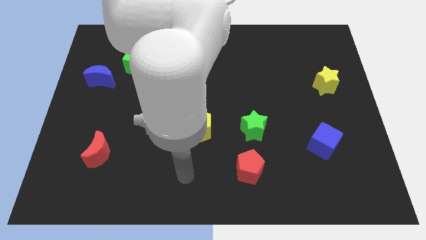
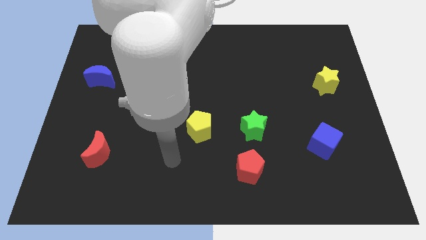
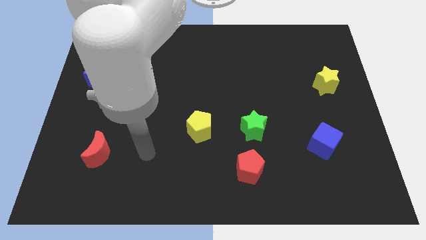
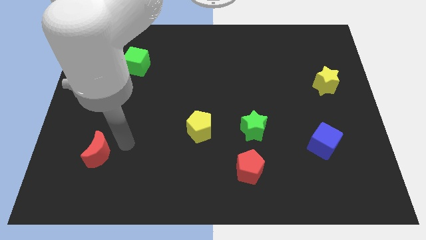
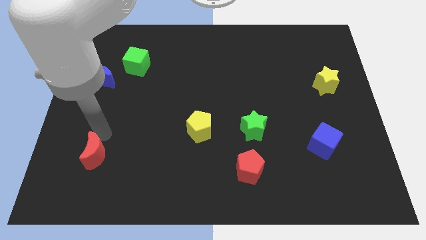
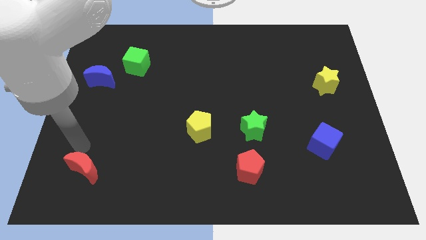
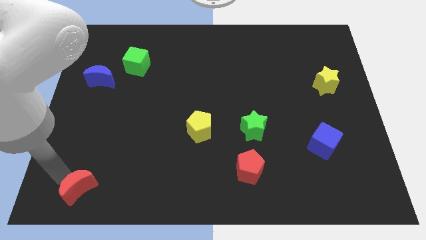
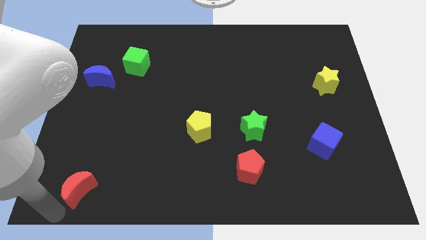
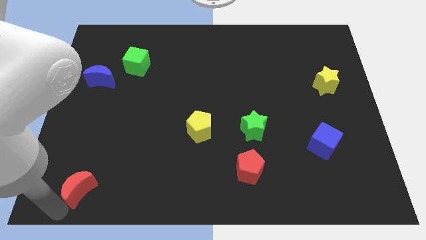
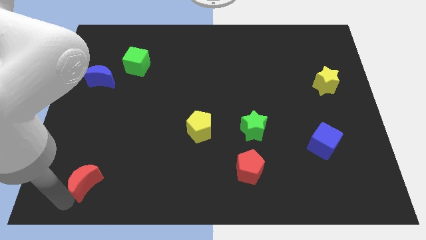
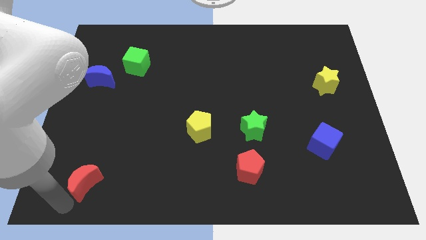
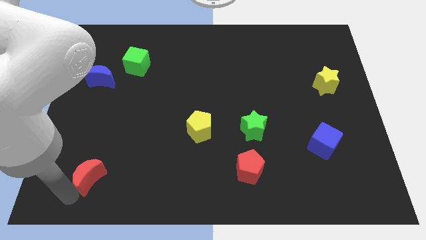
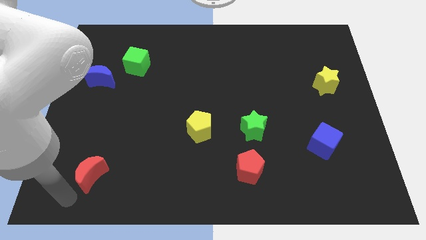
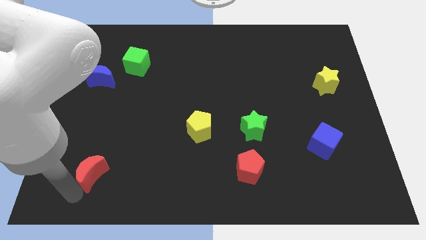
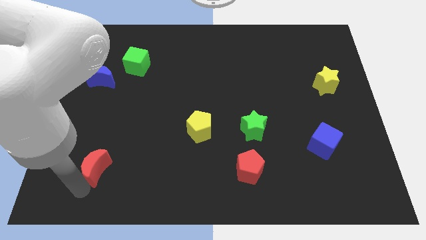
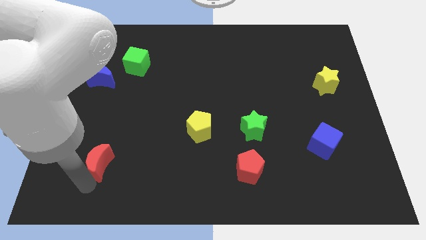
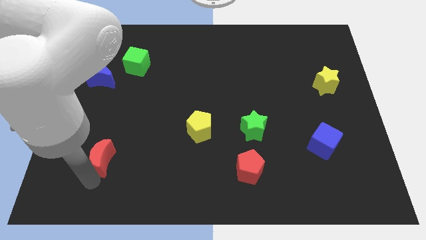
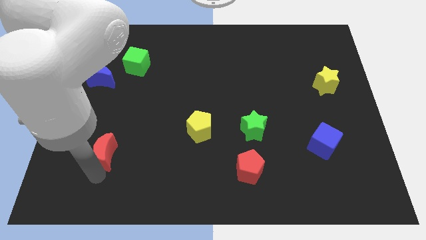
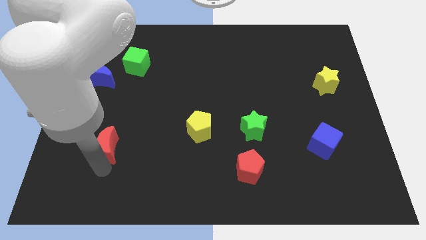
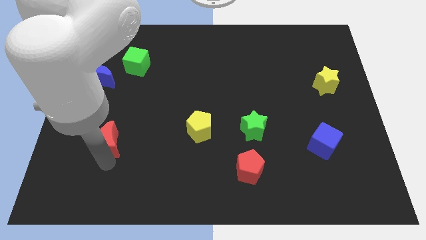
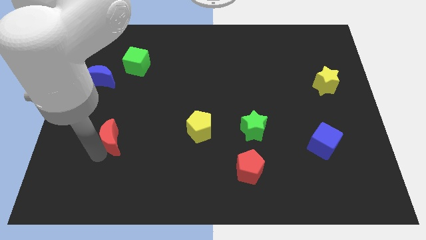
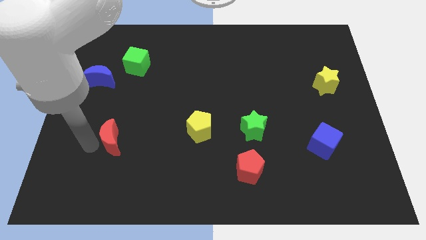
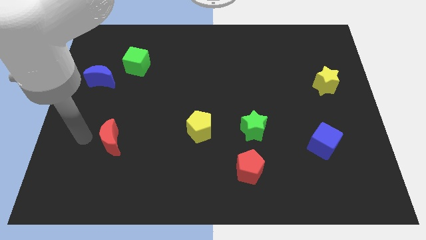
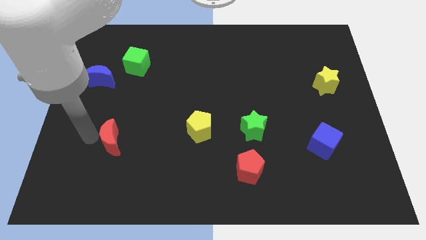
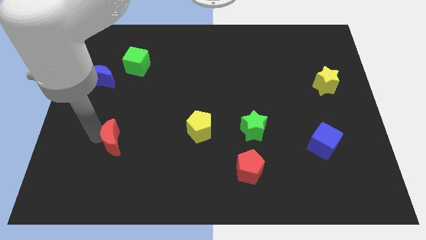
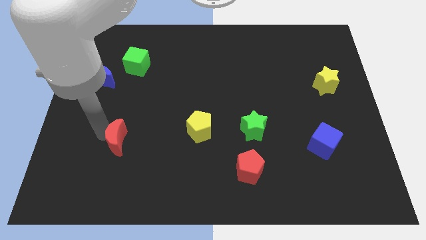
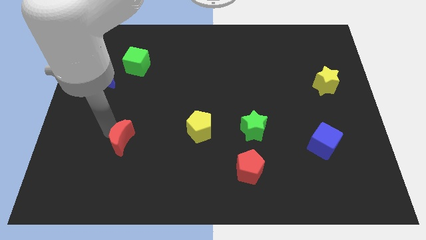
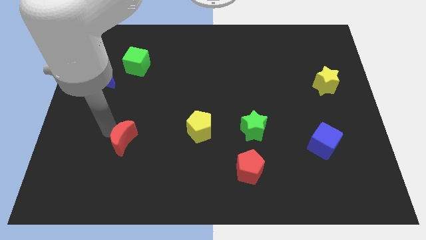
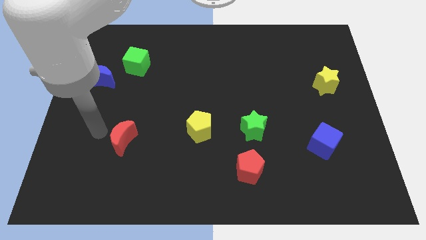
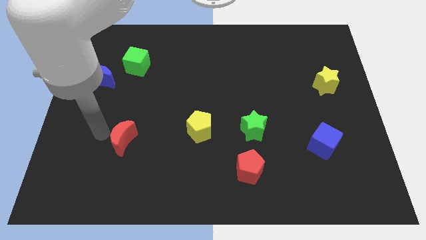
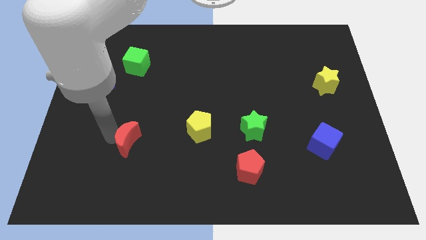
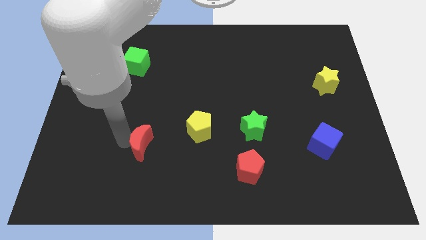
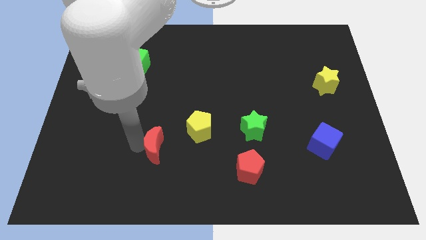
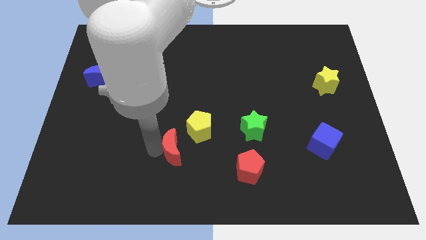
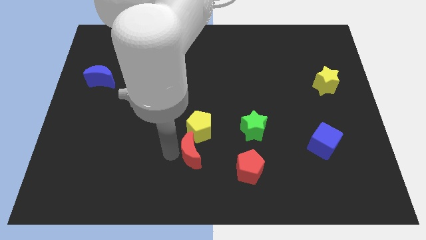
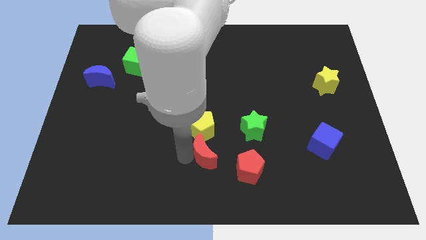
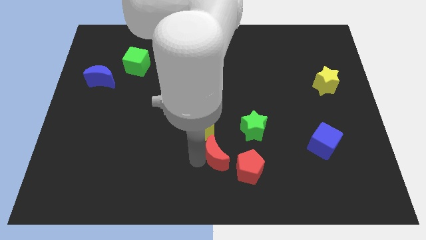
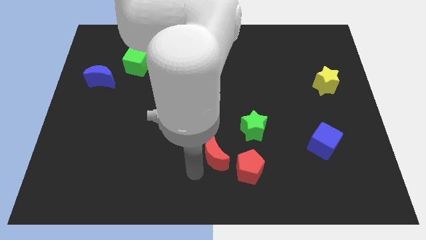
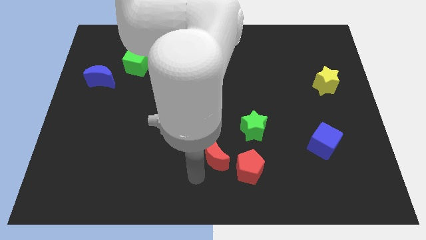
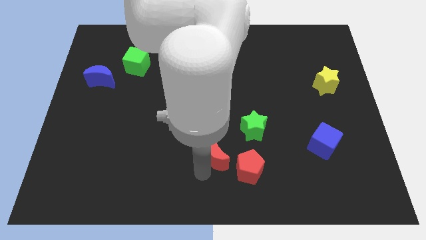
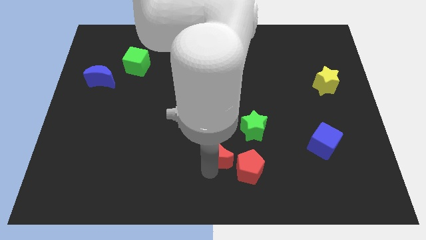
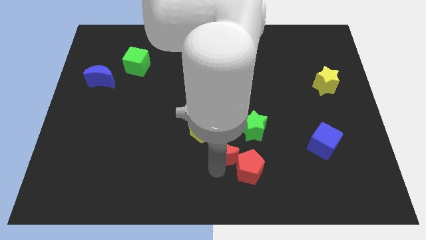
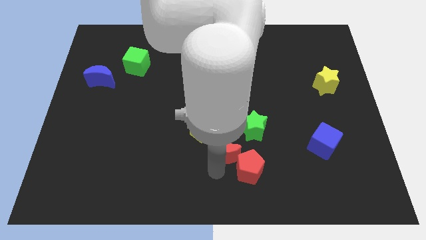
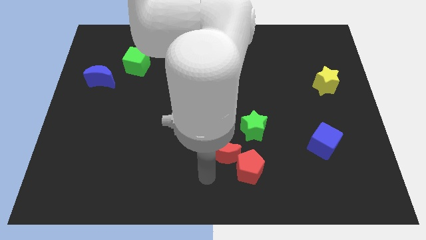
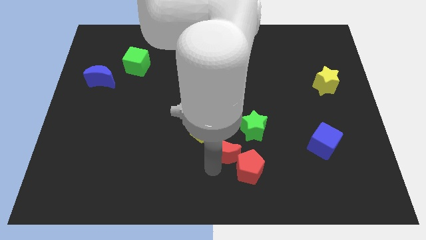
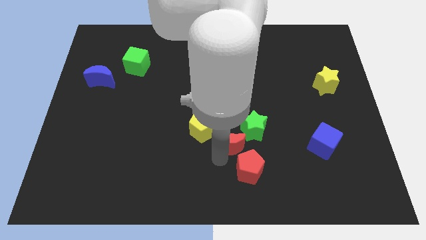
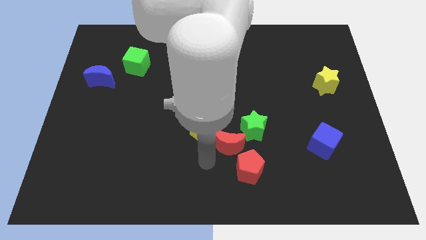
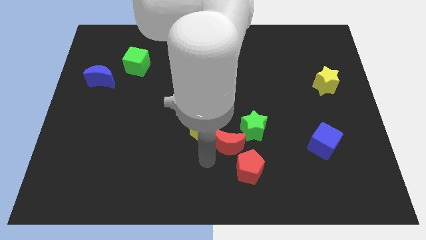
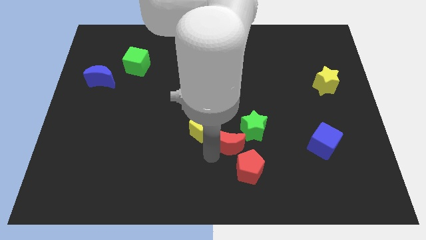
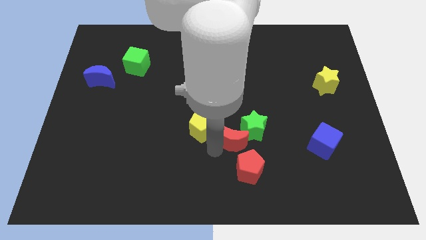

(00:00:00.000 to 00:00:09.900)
move the red moon to the green star

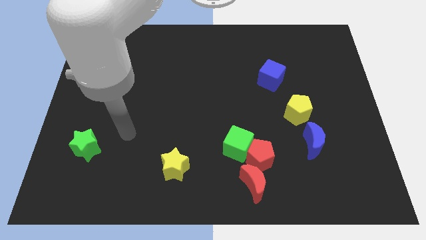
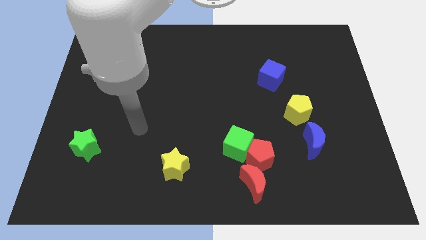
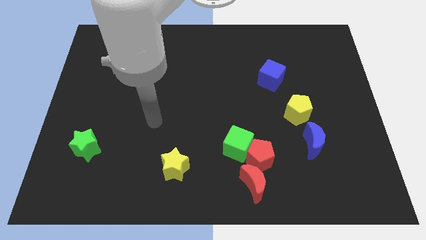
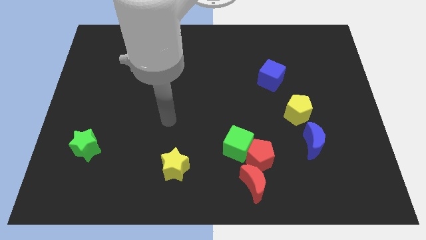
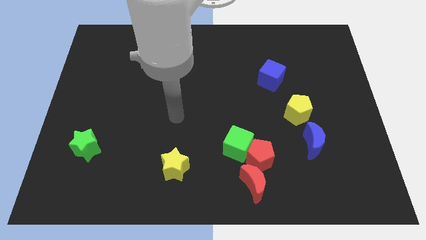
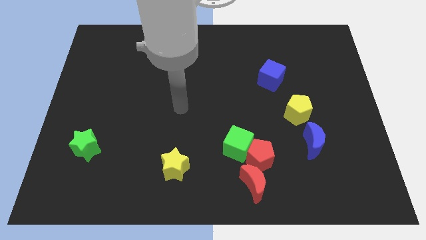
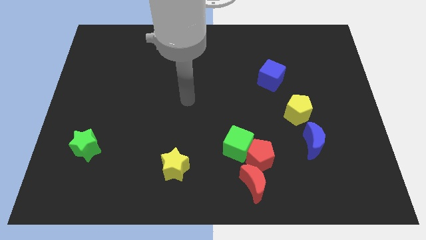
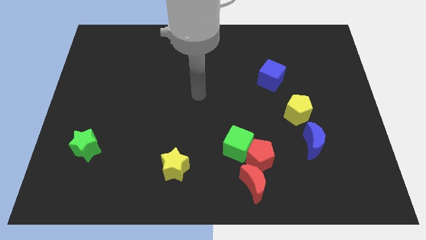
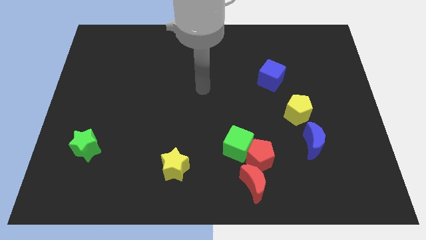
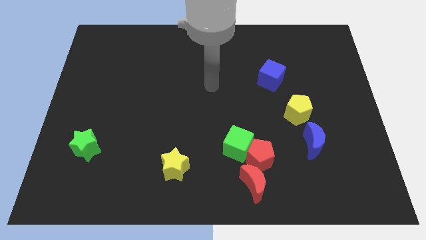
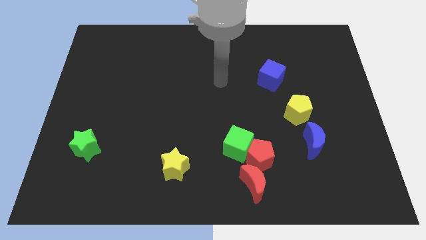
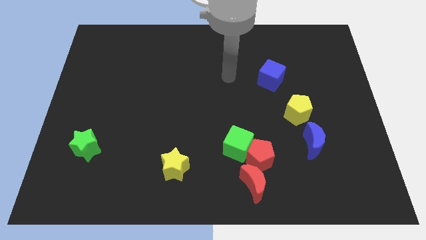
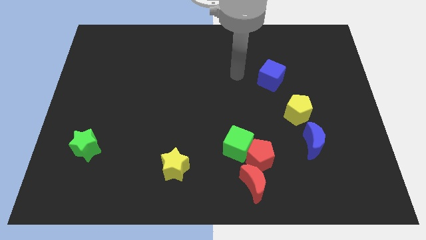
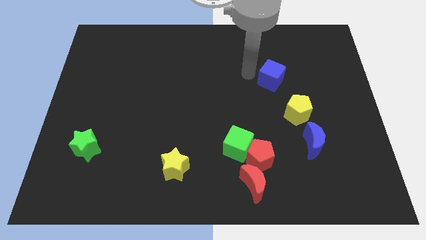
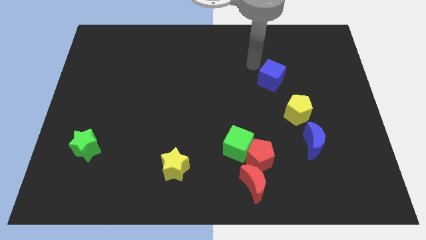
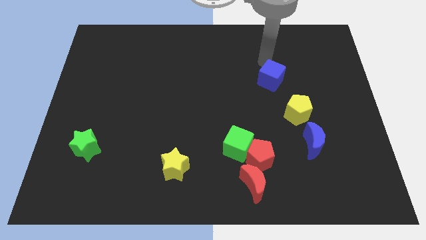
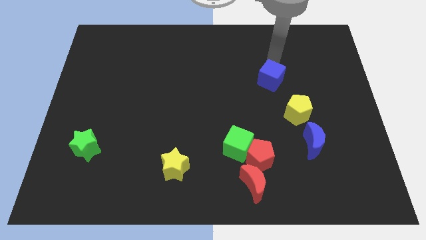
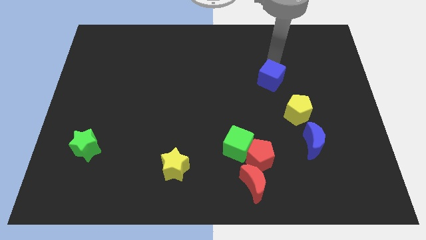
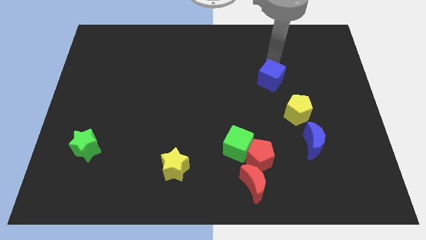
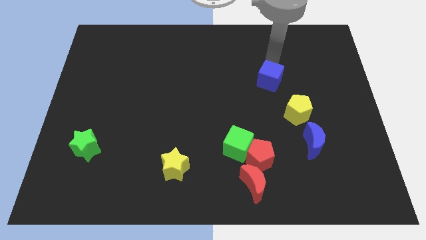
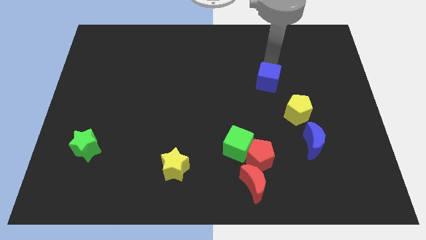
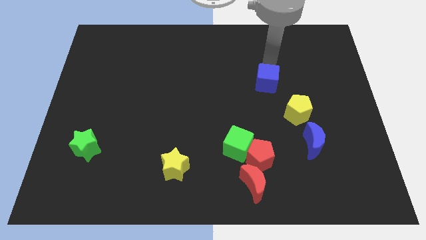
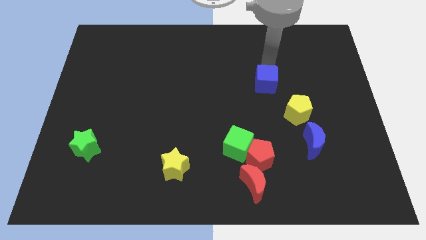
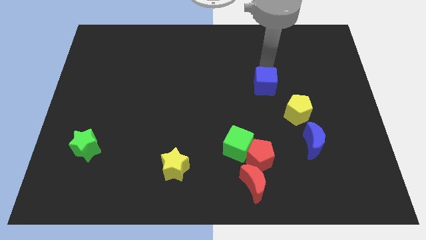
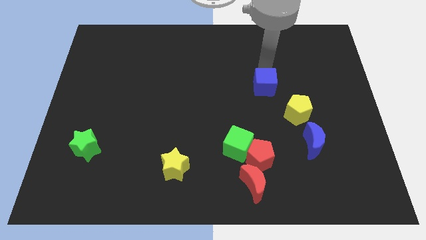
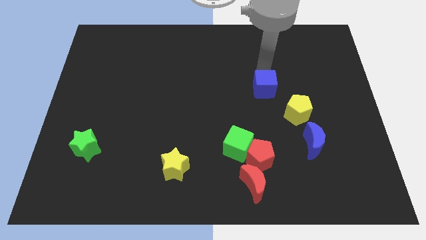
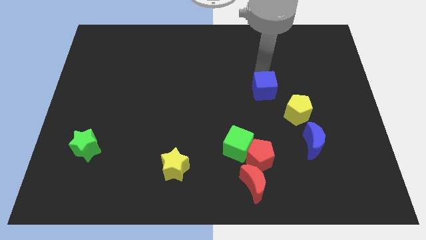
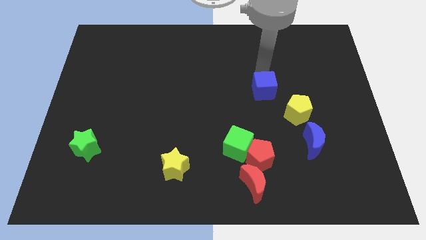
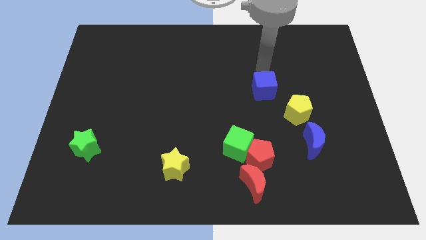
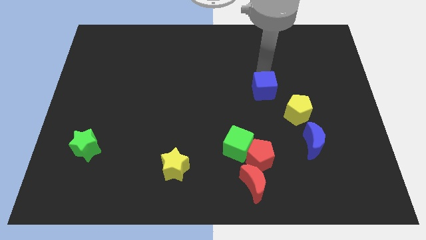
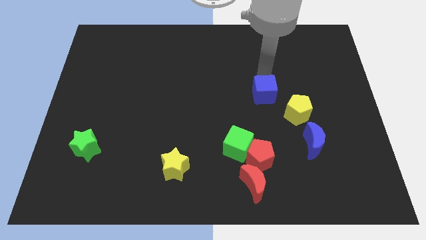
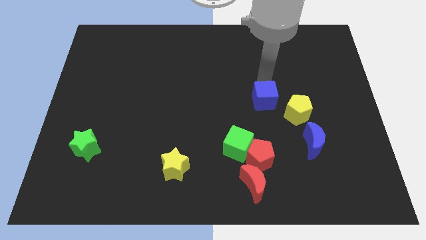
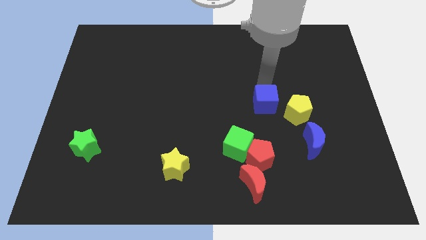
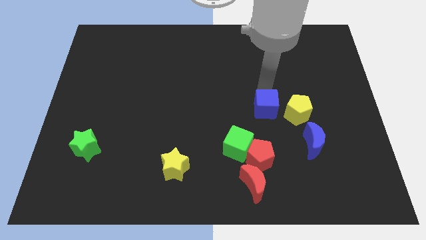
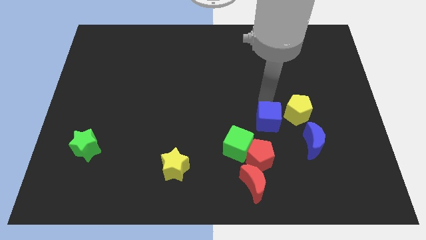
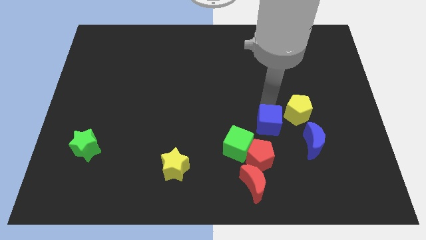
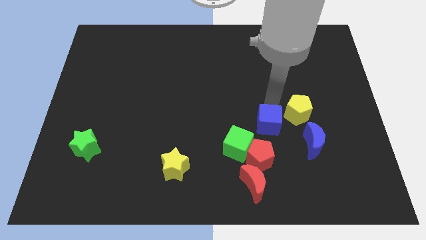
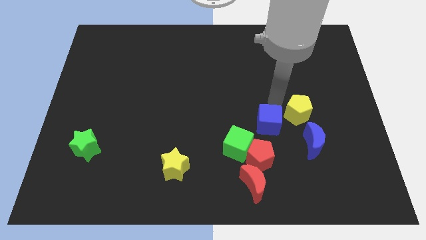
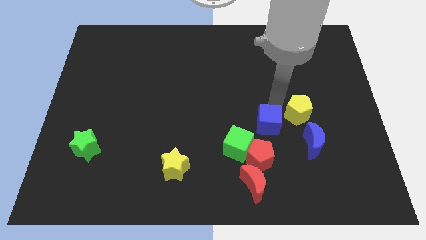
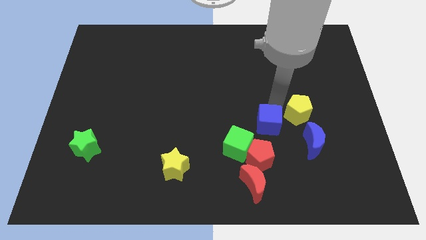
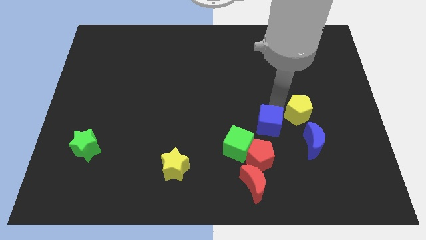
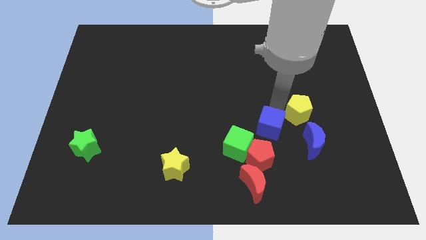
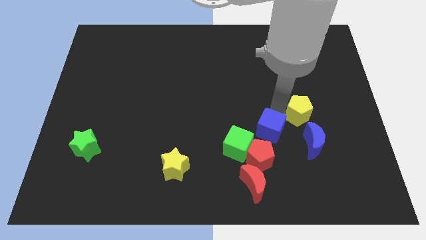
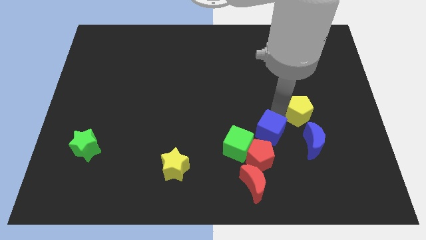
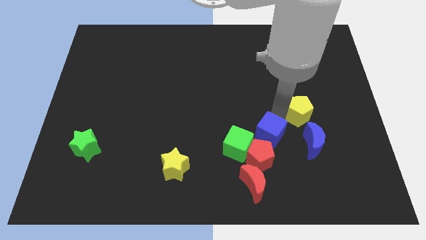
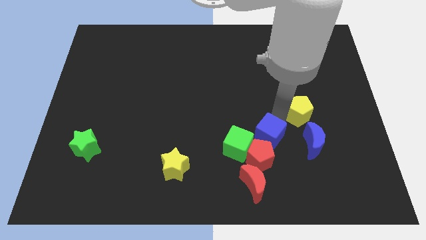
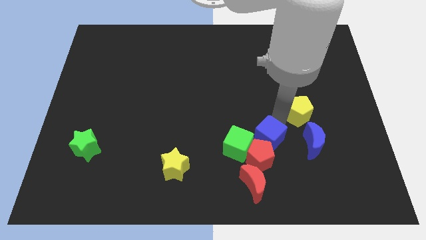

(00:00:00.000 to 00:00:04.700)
move the blue cube next to the red pentagon
